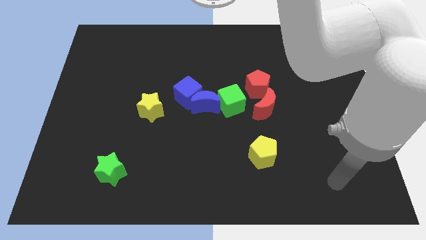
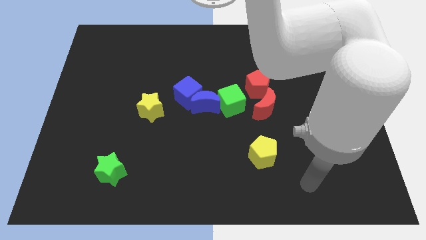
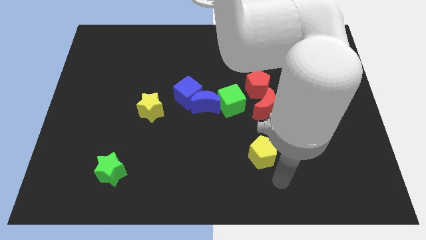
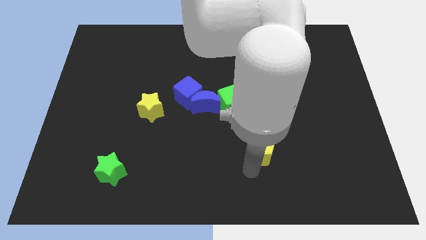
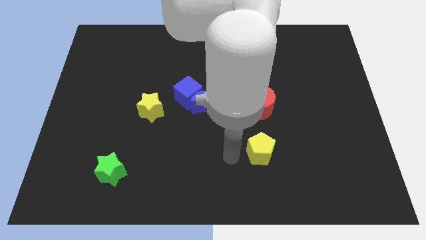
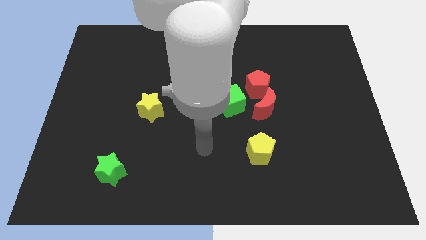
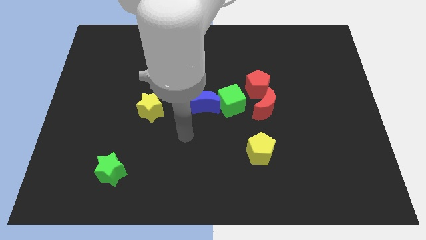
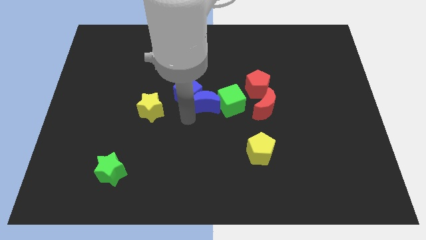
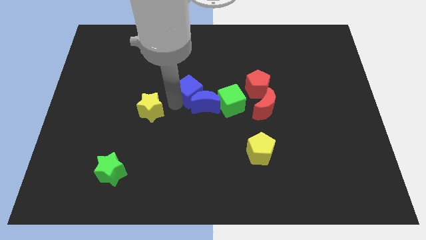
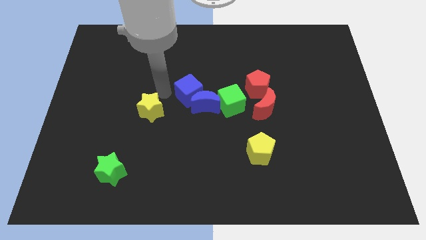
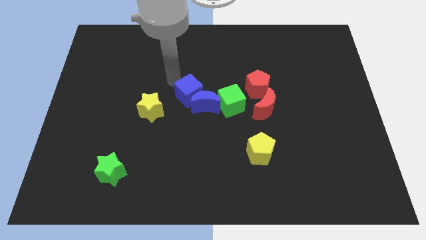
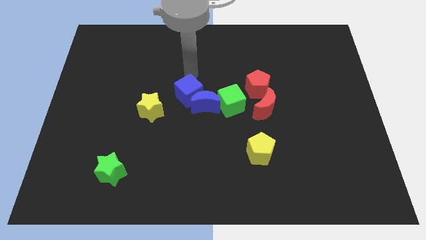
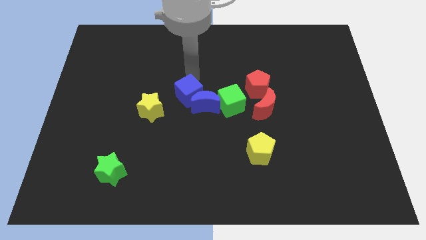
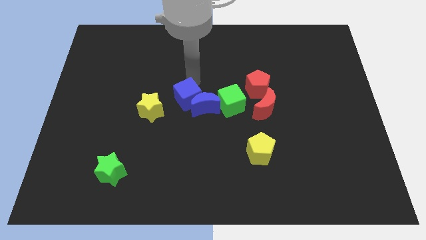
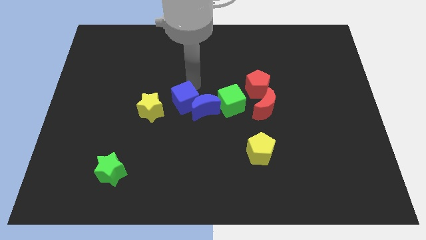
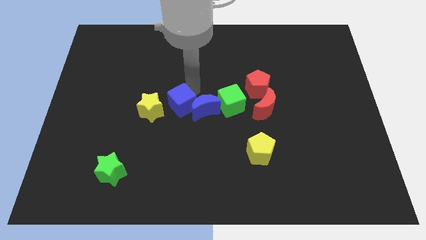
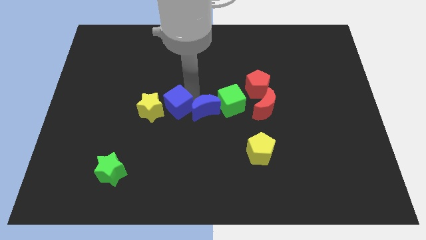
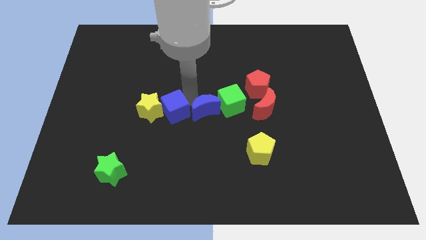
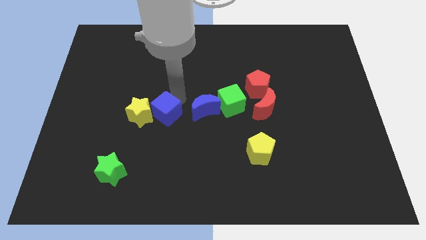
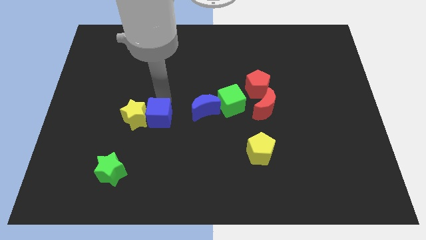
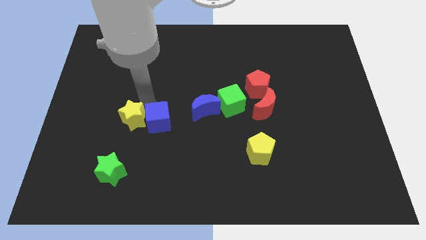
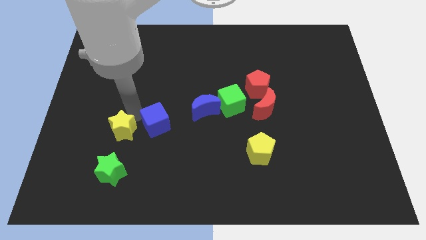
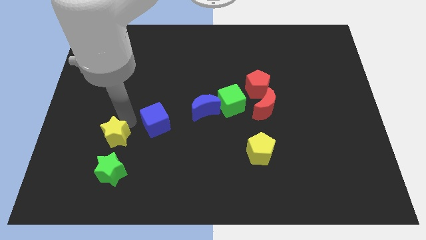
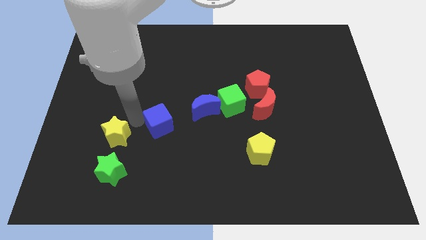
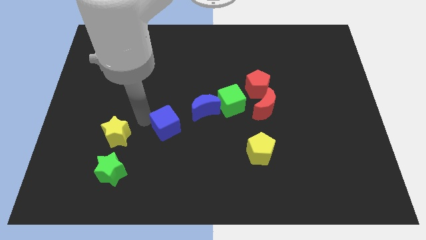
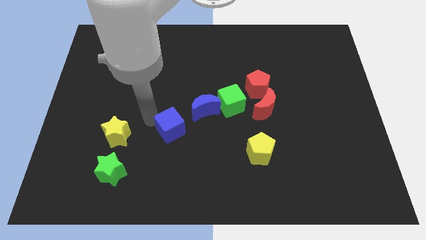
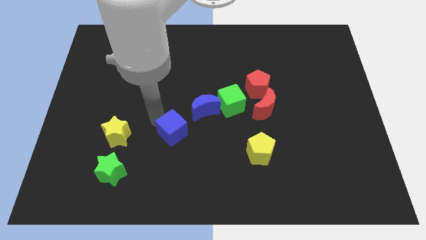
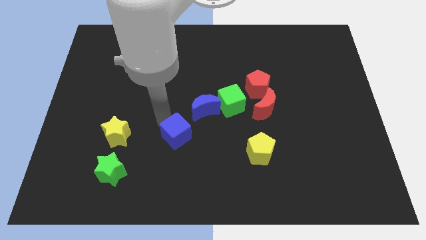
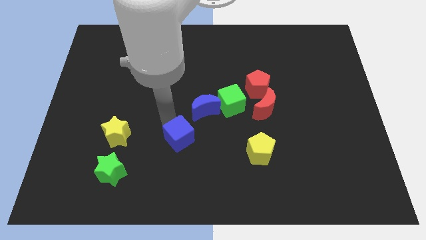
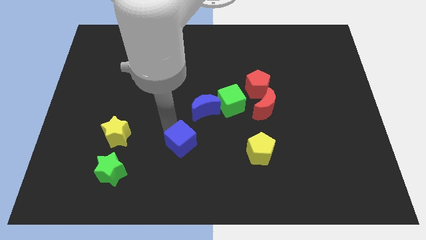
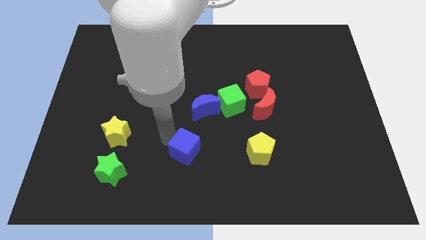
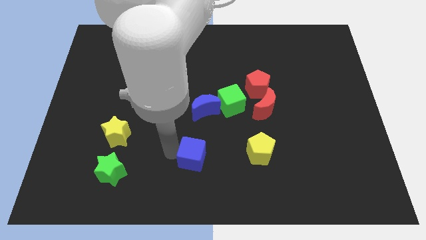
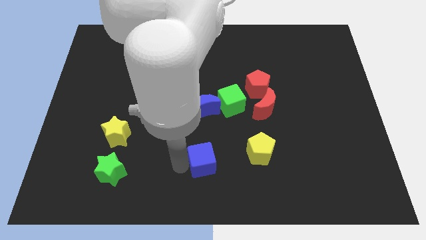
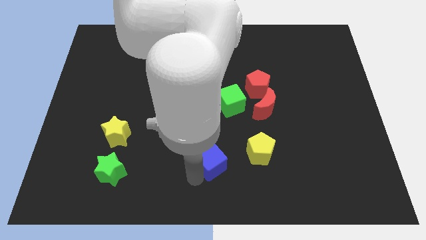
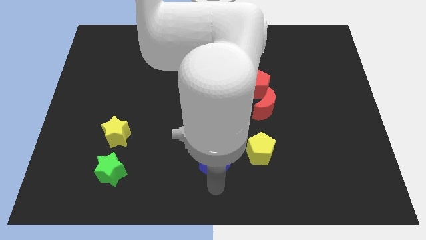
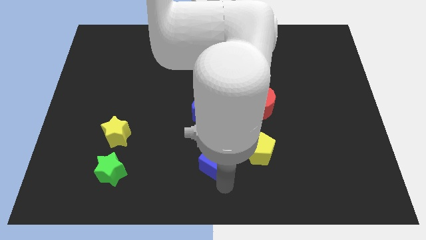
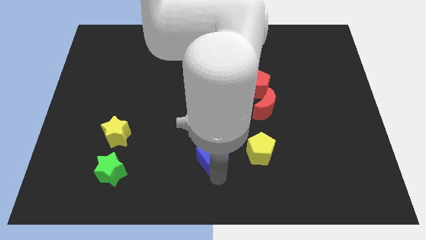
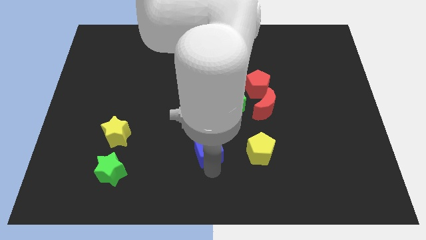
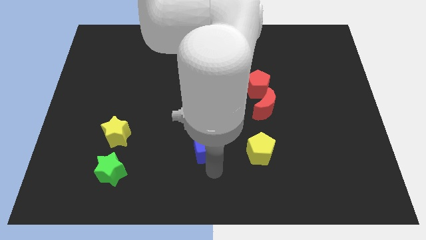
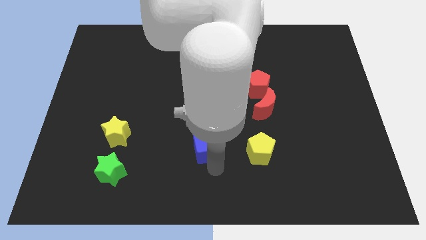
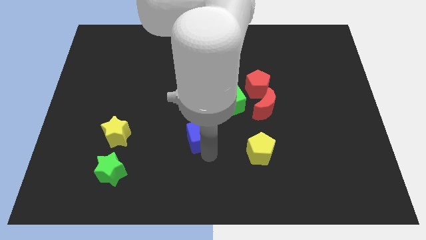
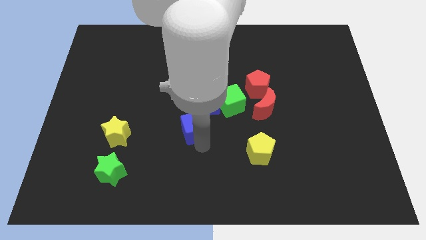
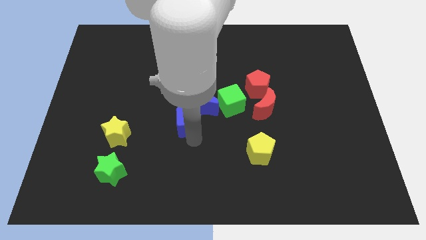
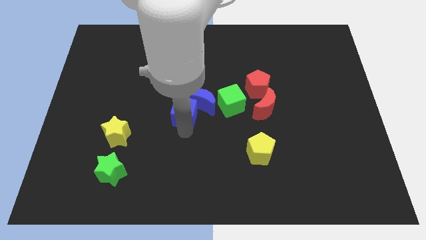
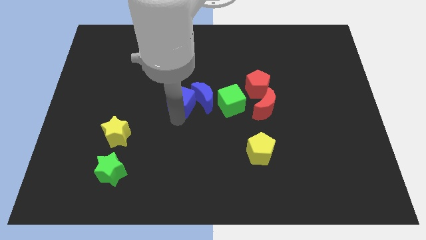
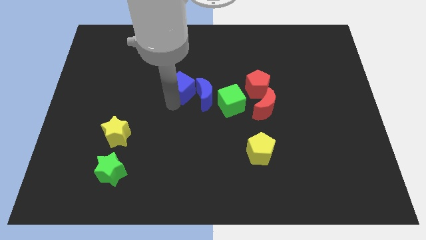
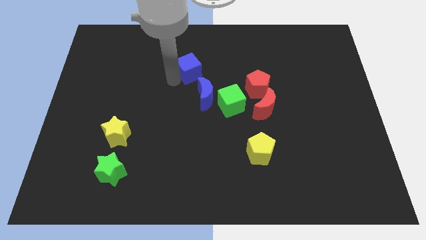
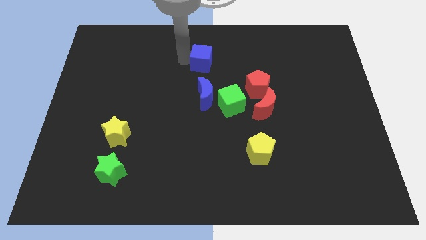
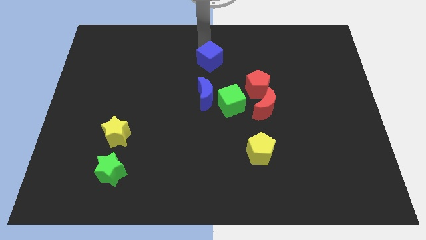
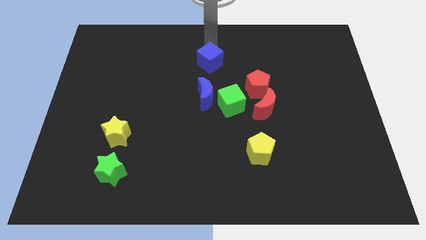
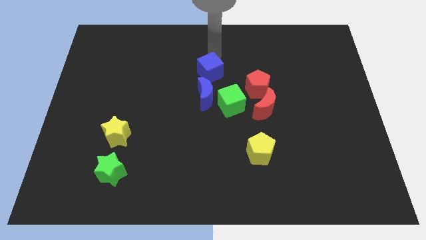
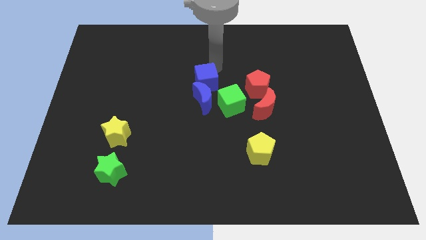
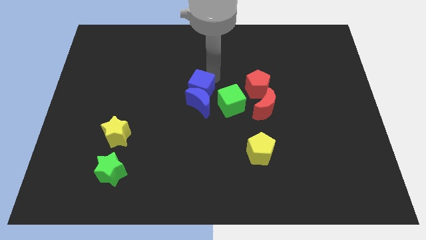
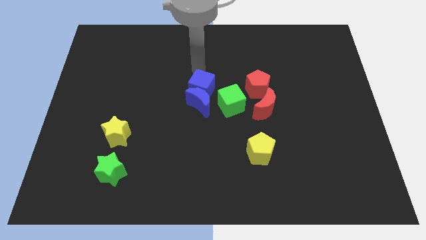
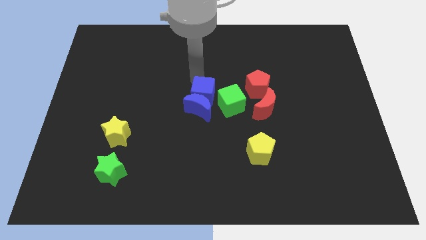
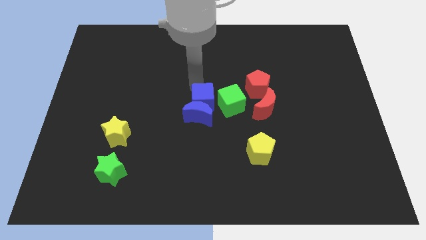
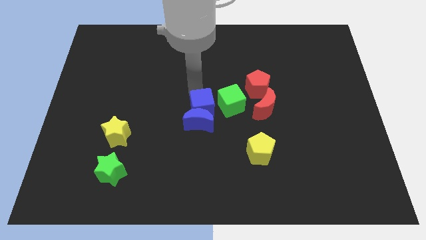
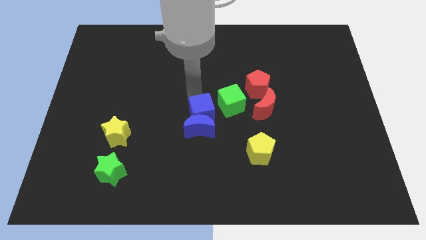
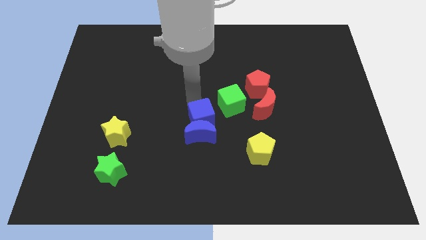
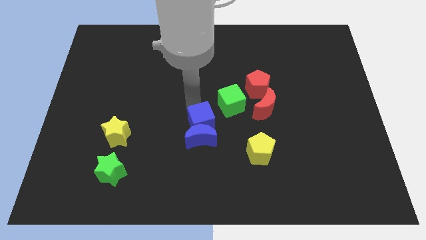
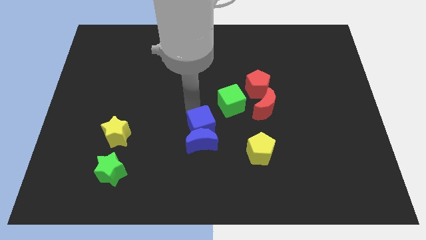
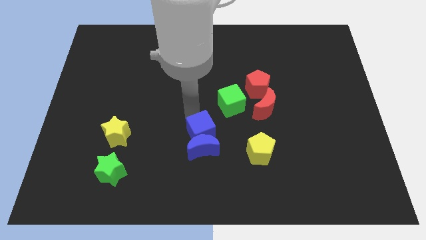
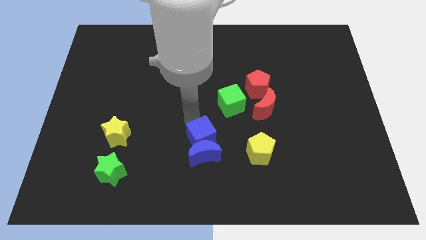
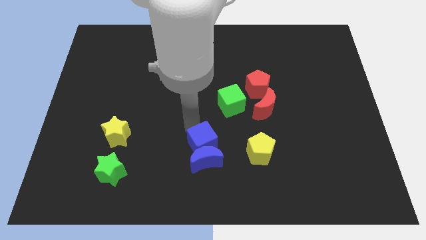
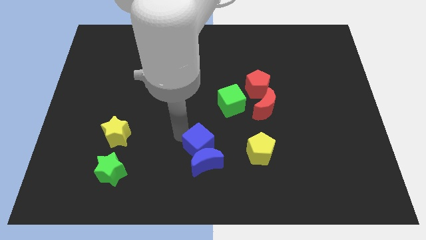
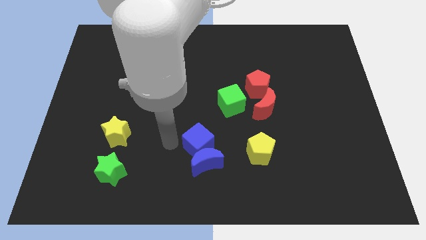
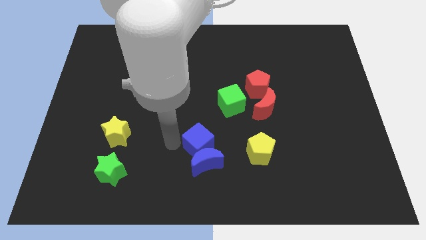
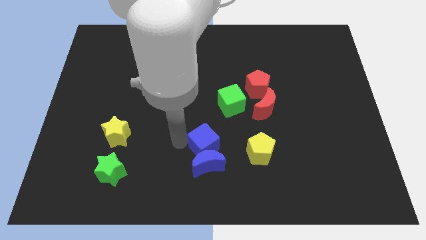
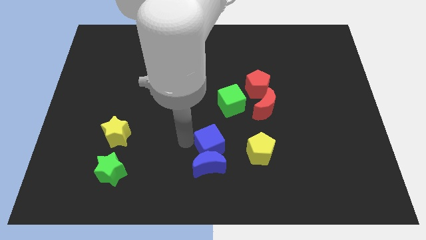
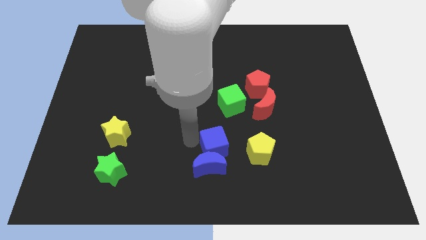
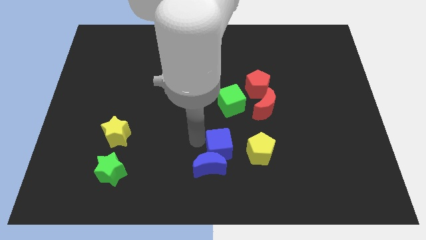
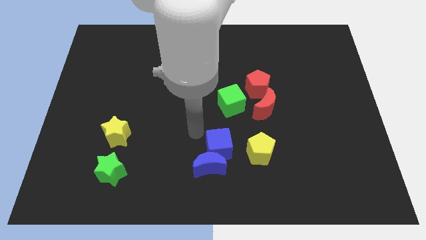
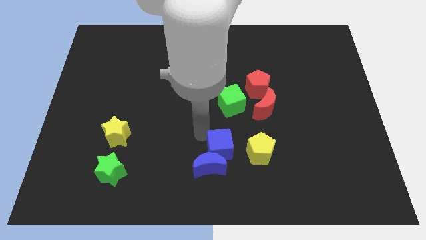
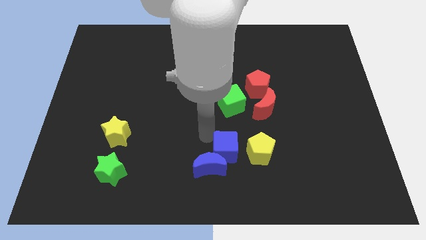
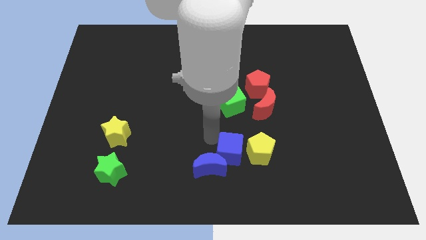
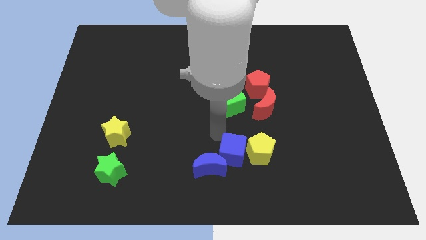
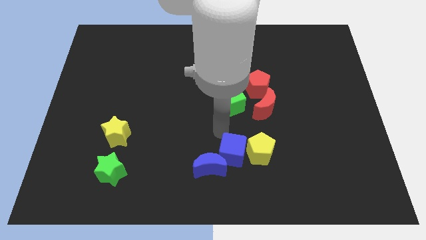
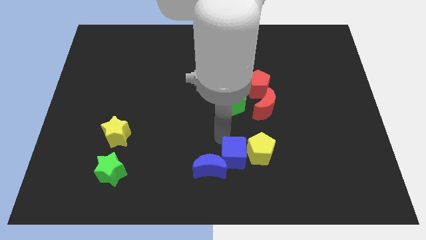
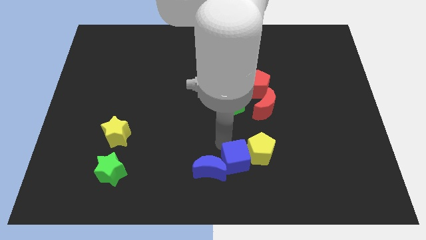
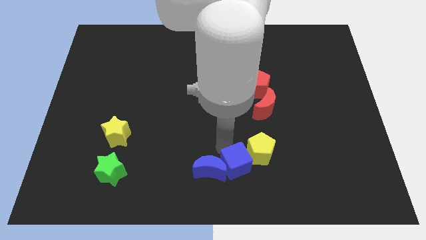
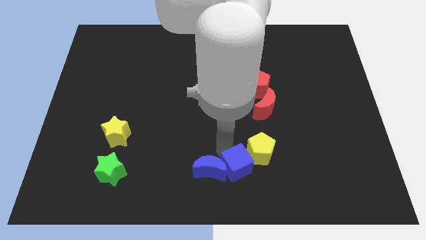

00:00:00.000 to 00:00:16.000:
move the blue cube down and then to the right
